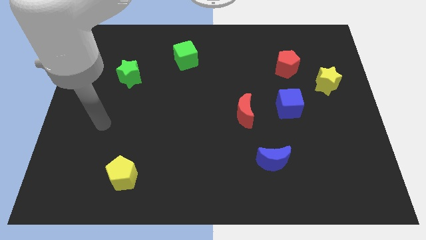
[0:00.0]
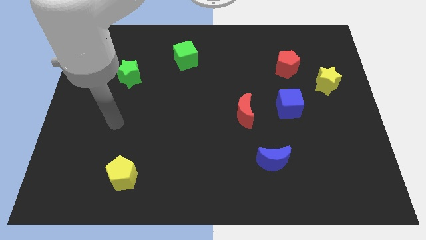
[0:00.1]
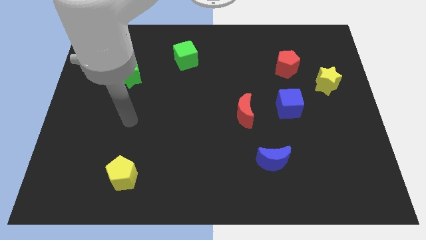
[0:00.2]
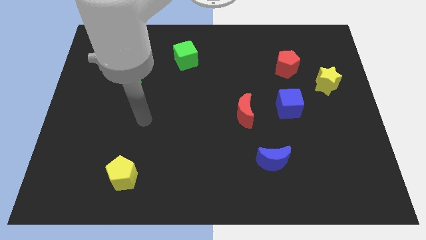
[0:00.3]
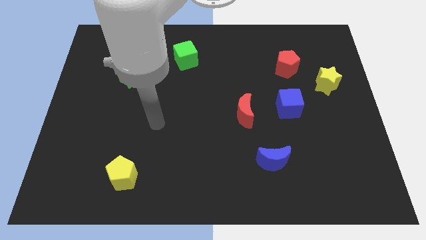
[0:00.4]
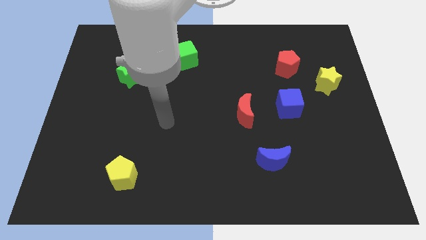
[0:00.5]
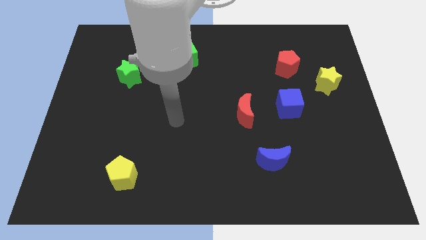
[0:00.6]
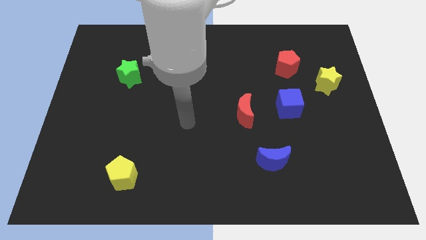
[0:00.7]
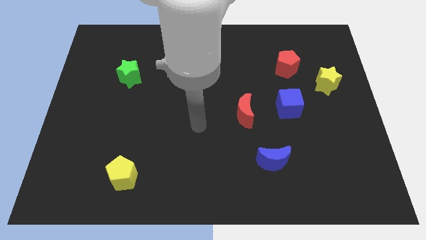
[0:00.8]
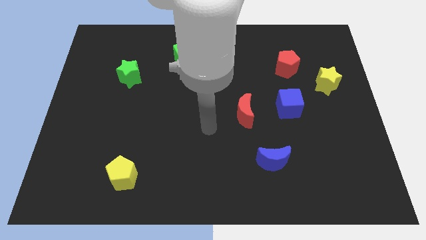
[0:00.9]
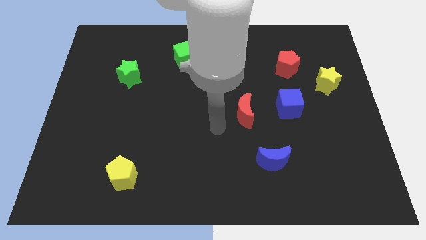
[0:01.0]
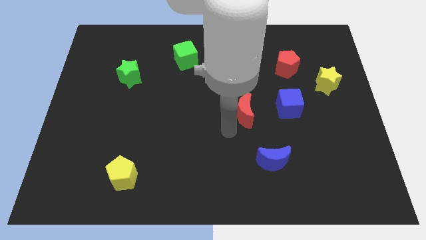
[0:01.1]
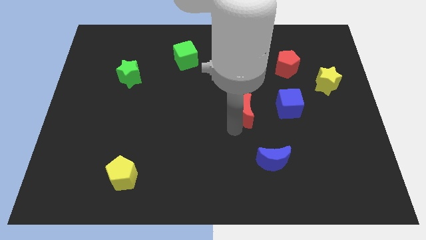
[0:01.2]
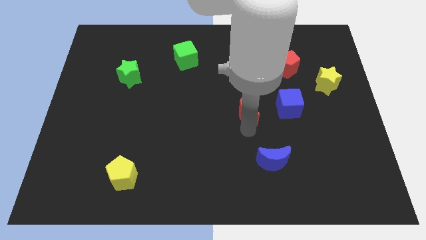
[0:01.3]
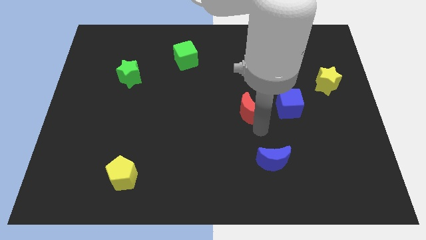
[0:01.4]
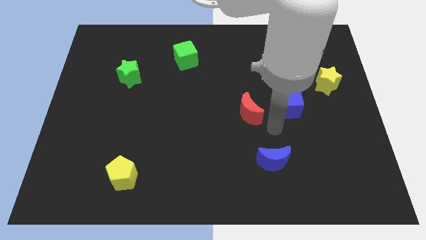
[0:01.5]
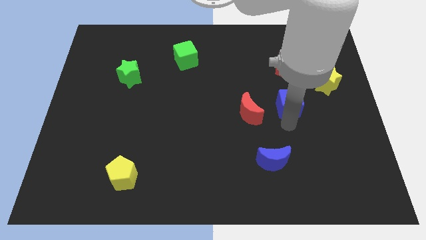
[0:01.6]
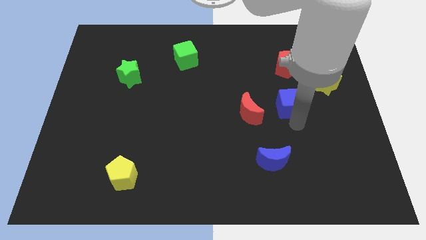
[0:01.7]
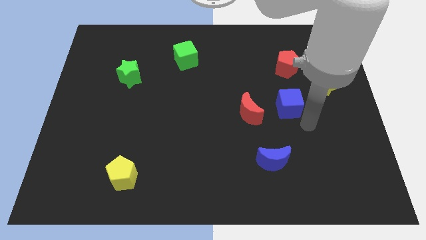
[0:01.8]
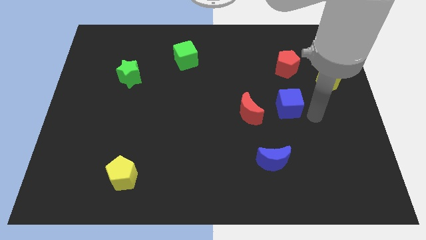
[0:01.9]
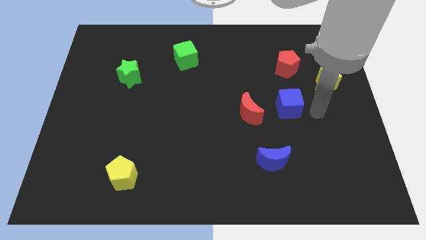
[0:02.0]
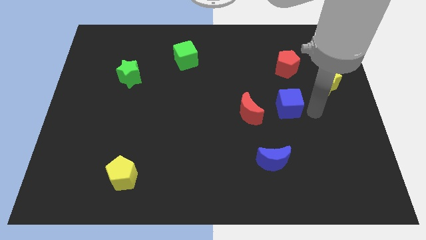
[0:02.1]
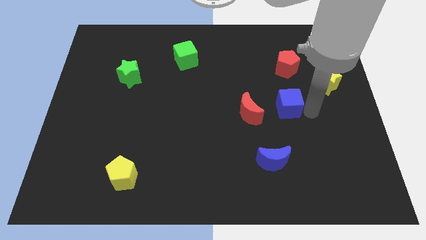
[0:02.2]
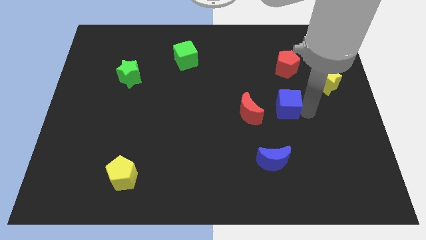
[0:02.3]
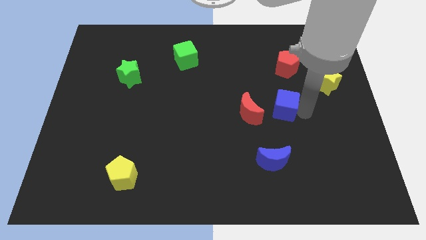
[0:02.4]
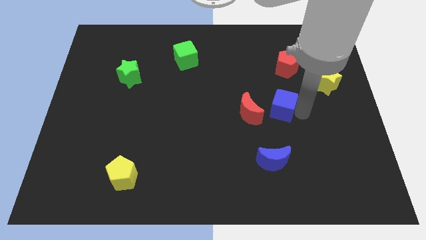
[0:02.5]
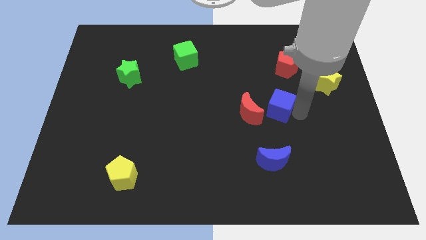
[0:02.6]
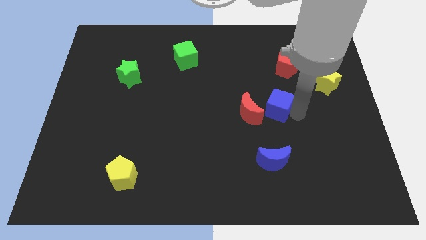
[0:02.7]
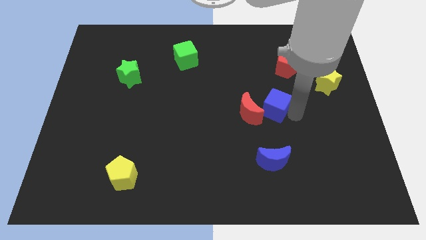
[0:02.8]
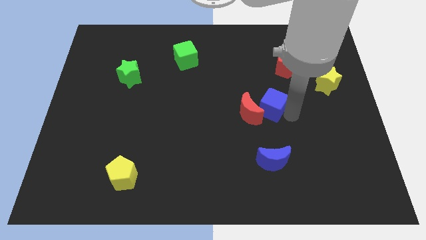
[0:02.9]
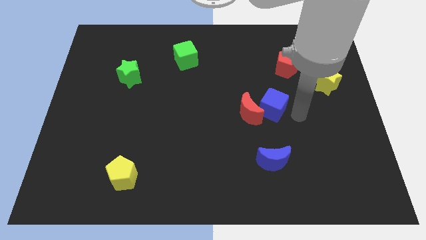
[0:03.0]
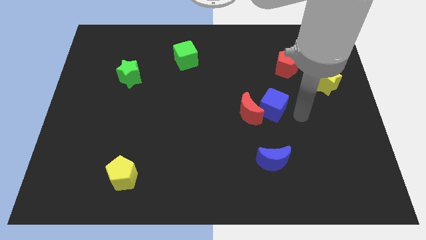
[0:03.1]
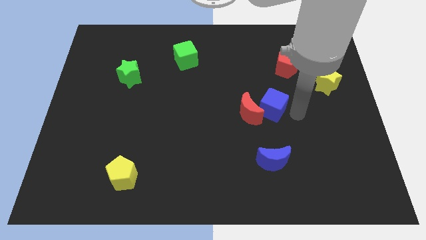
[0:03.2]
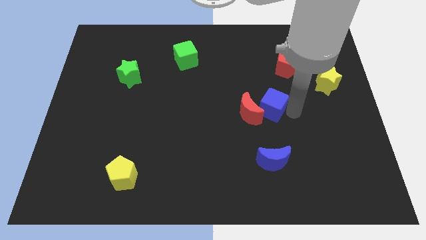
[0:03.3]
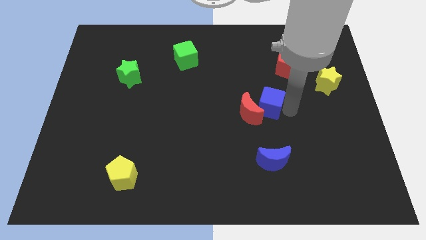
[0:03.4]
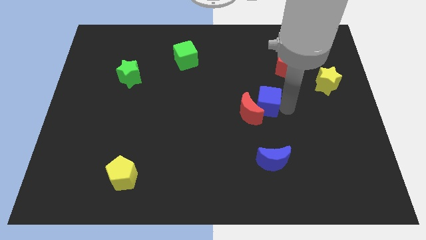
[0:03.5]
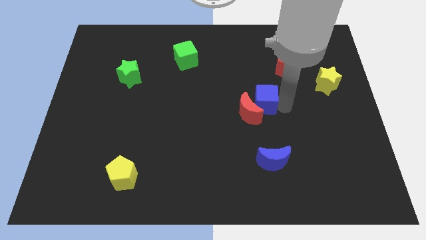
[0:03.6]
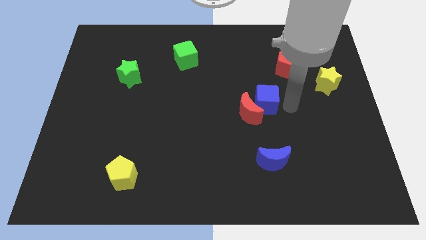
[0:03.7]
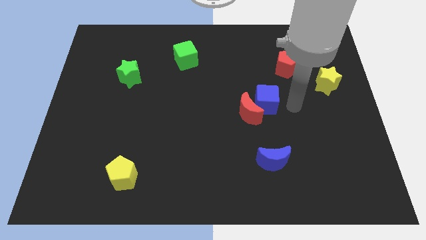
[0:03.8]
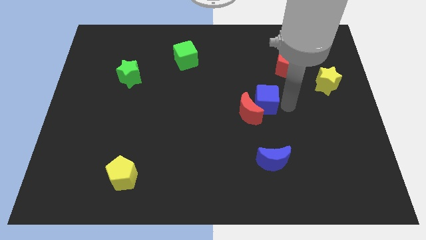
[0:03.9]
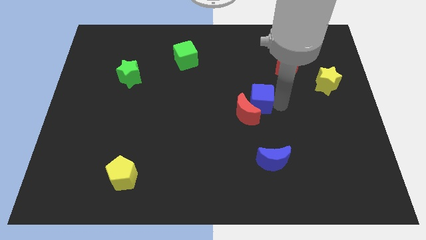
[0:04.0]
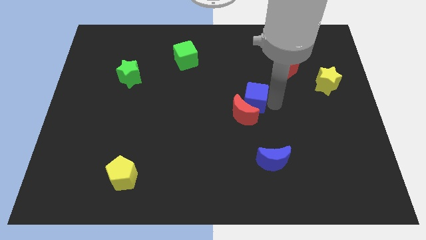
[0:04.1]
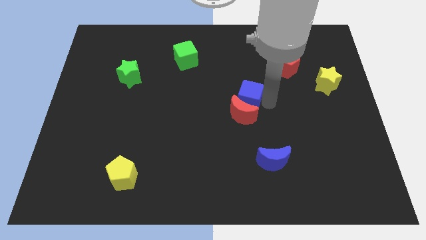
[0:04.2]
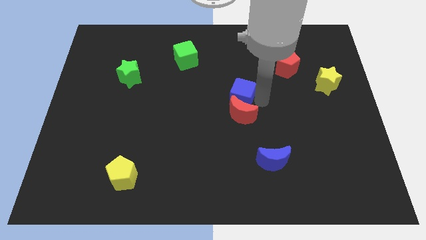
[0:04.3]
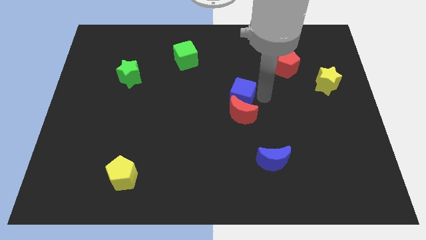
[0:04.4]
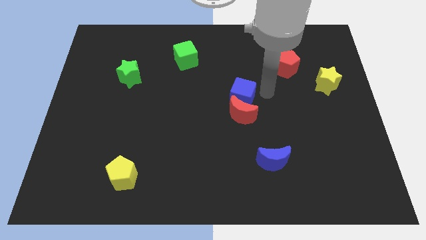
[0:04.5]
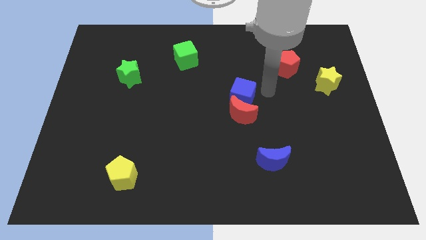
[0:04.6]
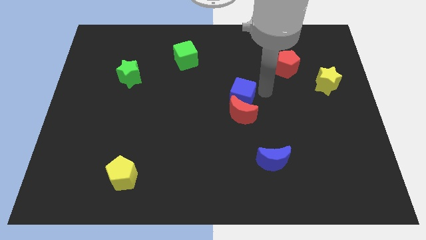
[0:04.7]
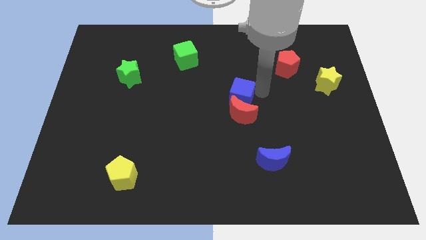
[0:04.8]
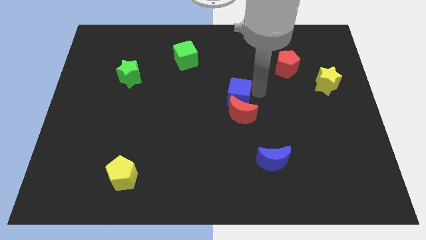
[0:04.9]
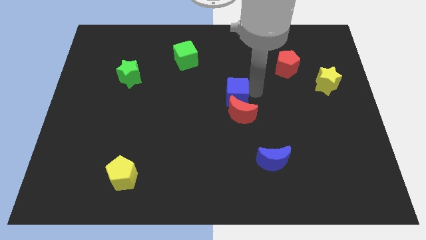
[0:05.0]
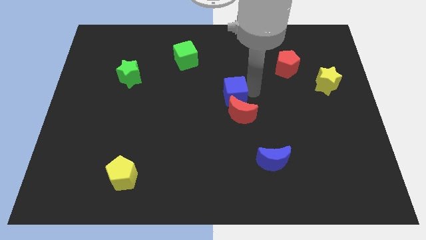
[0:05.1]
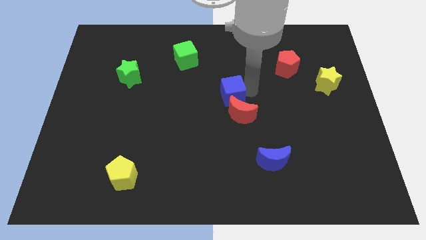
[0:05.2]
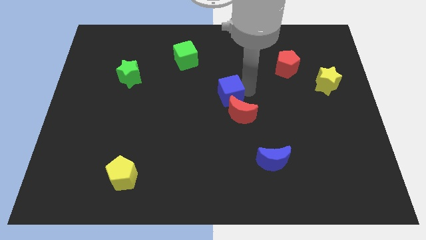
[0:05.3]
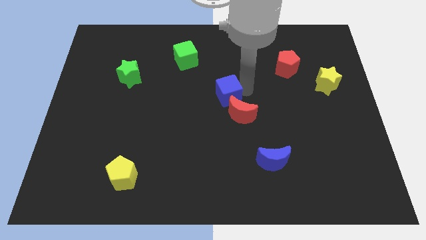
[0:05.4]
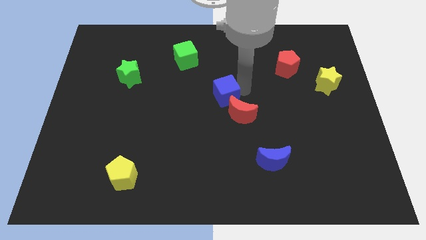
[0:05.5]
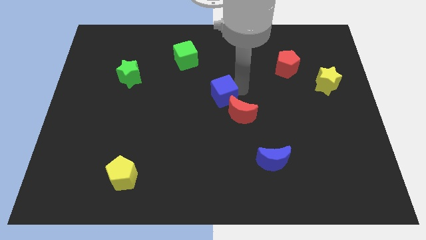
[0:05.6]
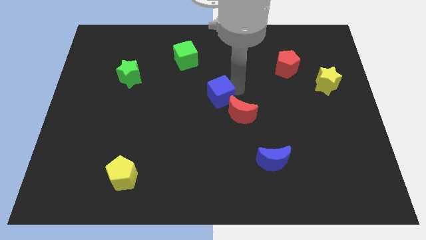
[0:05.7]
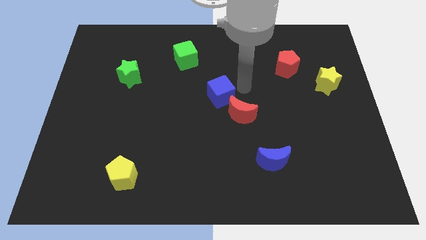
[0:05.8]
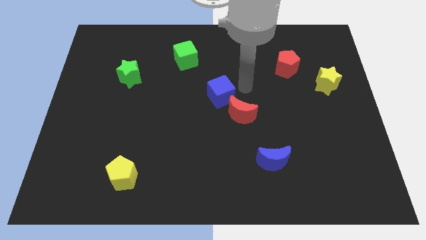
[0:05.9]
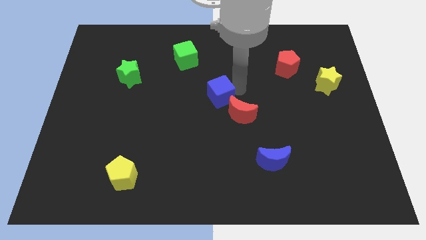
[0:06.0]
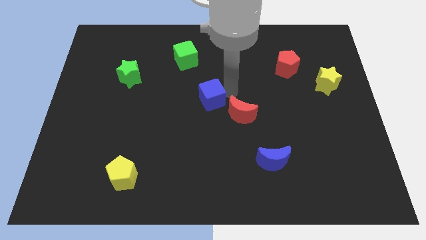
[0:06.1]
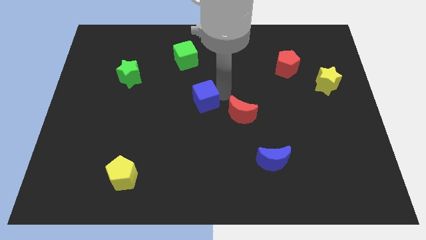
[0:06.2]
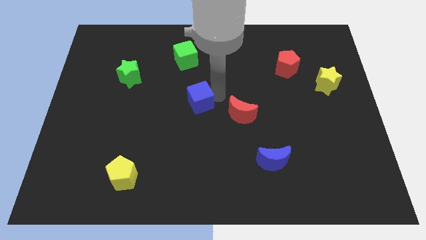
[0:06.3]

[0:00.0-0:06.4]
push the blue cube left

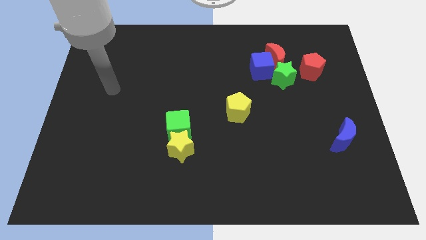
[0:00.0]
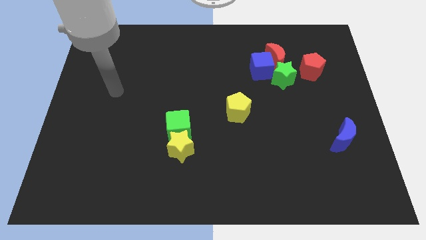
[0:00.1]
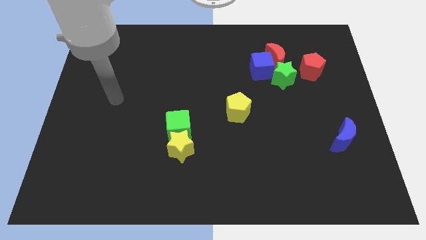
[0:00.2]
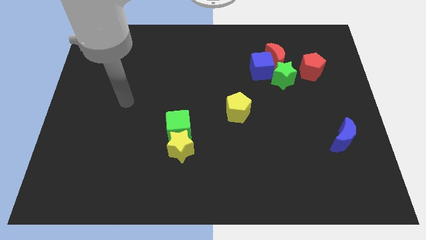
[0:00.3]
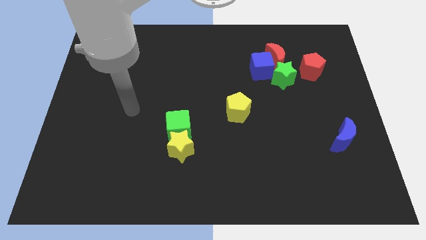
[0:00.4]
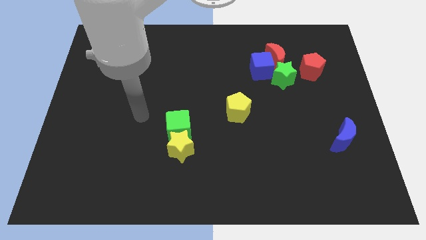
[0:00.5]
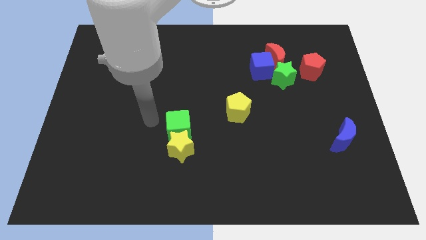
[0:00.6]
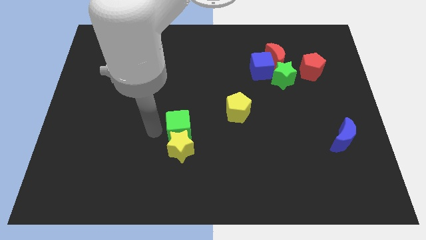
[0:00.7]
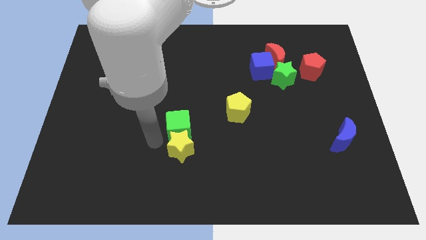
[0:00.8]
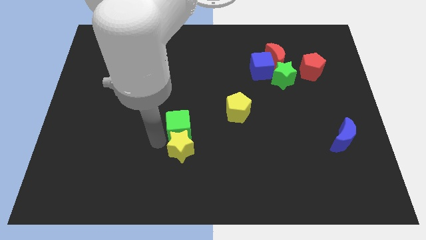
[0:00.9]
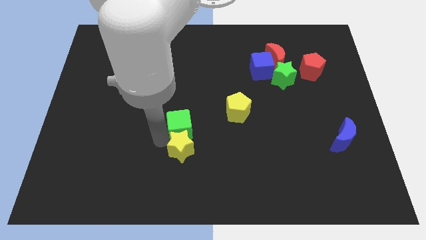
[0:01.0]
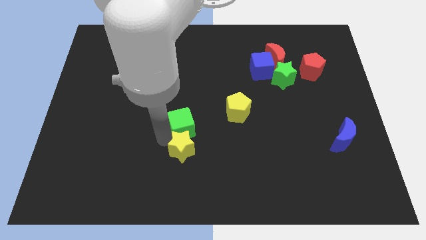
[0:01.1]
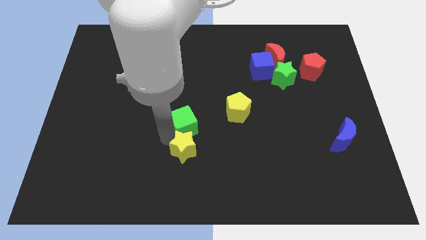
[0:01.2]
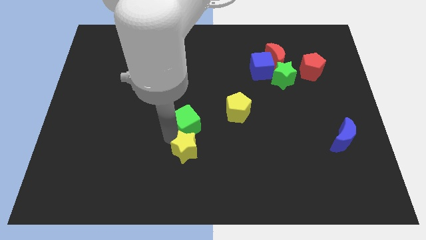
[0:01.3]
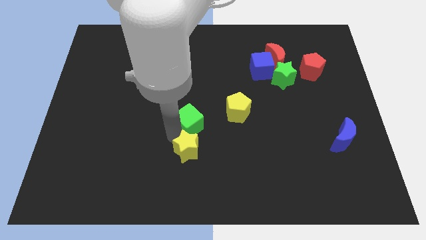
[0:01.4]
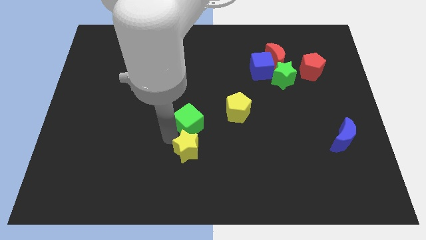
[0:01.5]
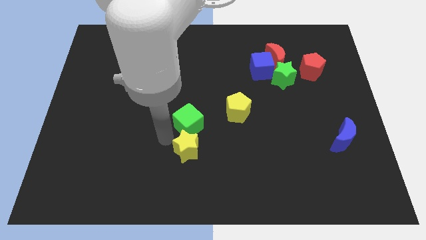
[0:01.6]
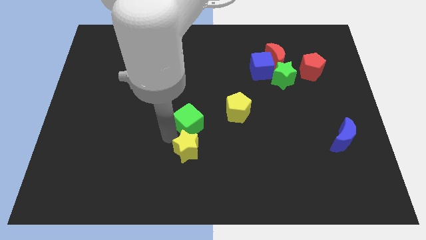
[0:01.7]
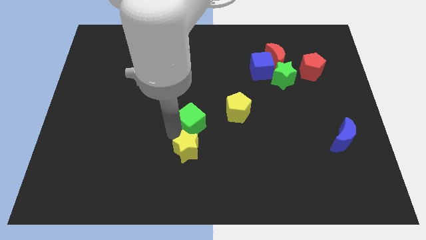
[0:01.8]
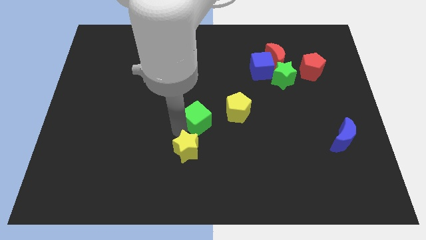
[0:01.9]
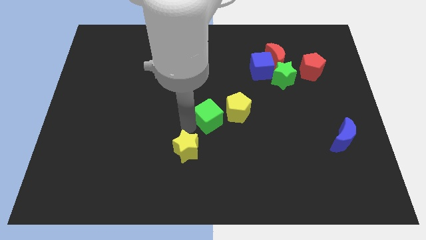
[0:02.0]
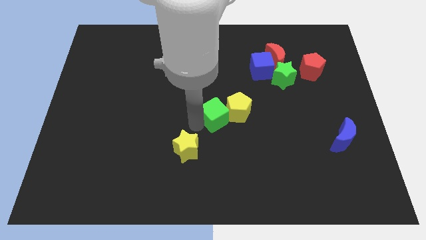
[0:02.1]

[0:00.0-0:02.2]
move the green cube somewhat upwards and then to the right
